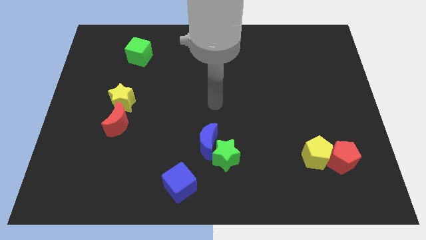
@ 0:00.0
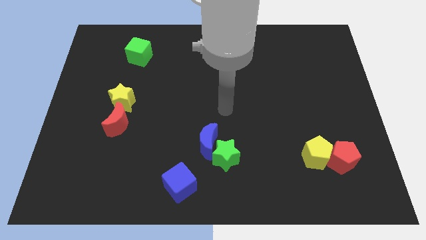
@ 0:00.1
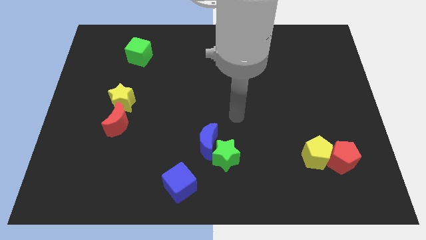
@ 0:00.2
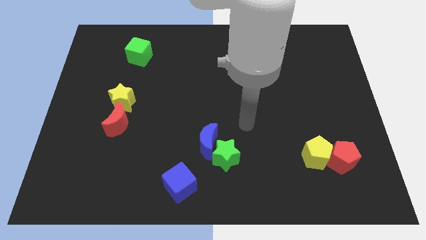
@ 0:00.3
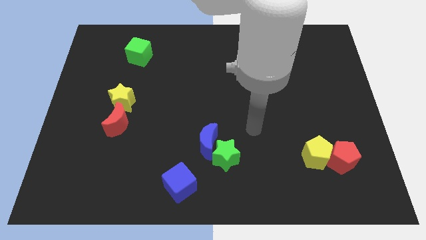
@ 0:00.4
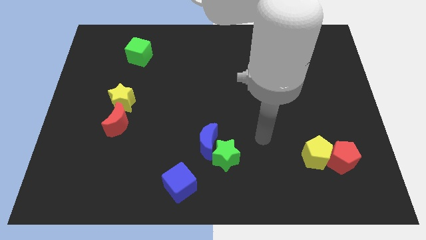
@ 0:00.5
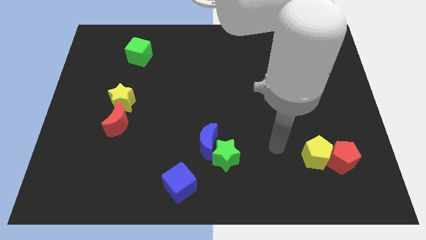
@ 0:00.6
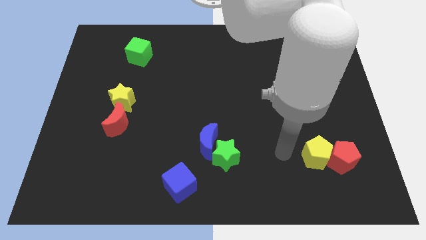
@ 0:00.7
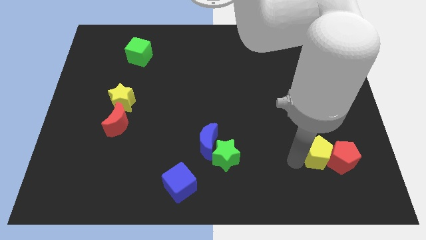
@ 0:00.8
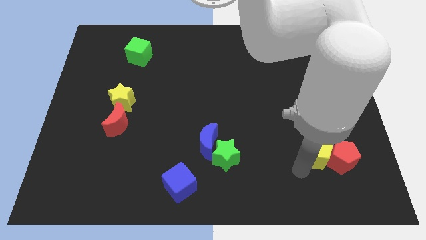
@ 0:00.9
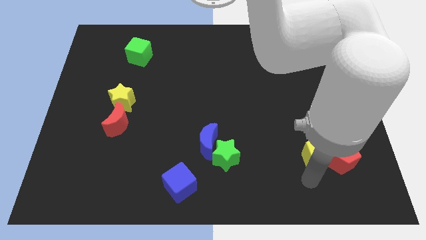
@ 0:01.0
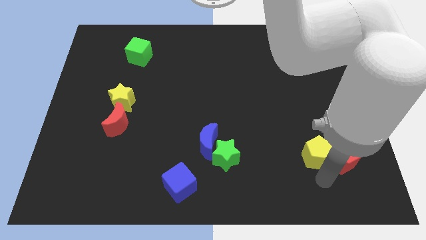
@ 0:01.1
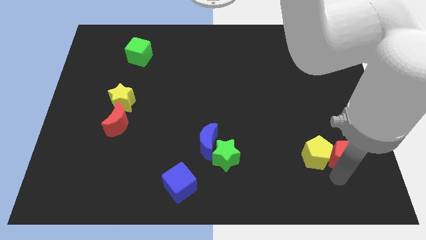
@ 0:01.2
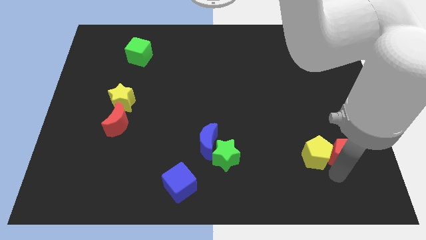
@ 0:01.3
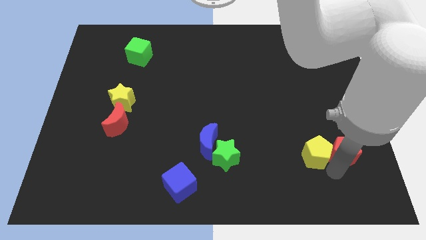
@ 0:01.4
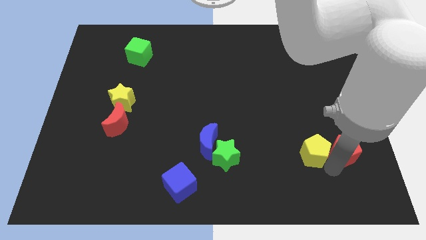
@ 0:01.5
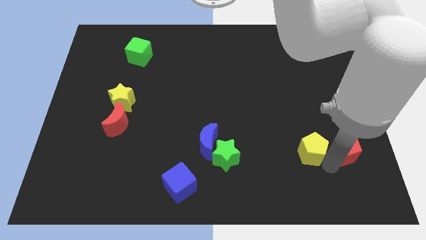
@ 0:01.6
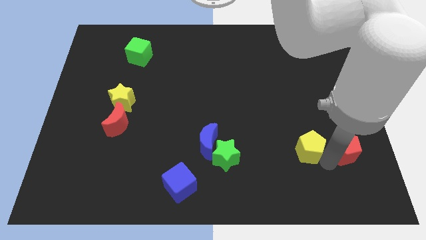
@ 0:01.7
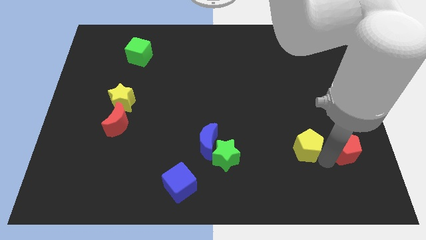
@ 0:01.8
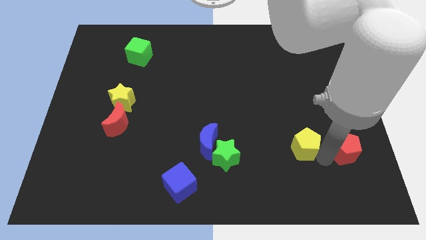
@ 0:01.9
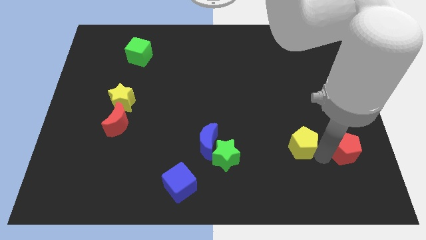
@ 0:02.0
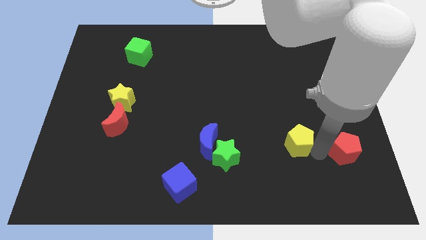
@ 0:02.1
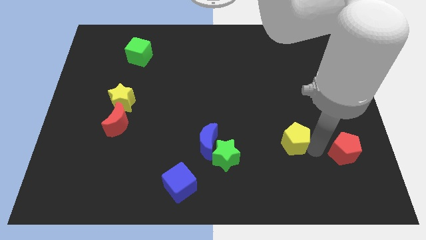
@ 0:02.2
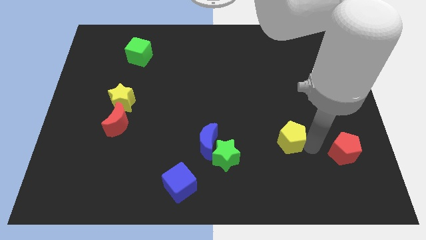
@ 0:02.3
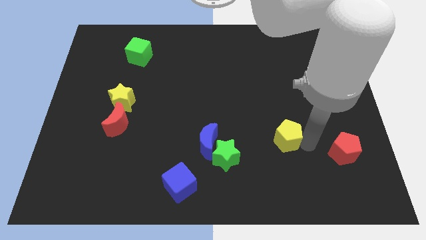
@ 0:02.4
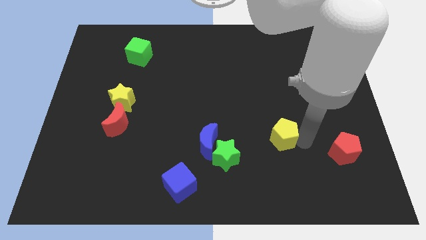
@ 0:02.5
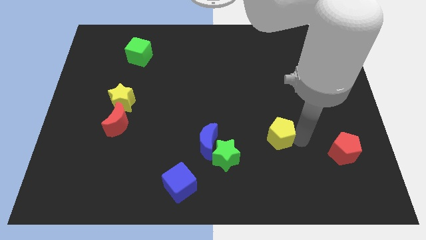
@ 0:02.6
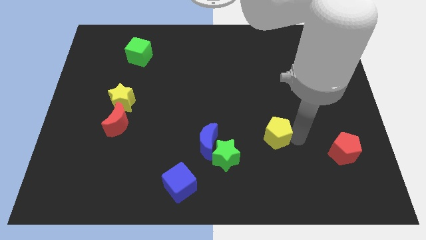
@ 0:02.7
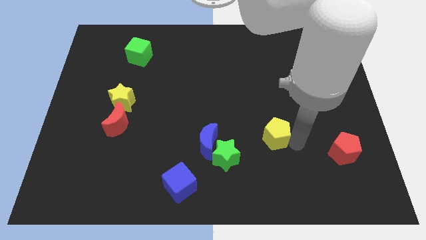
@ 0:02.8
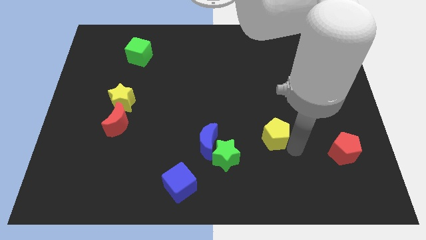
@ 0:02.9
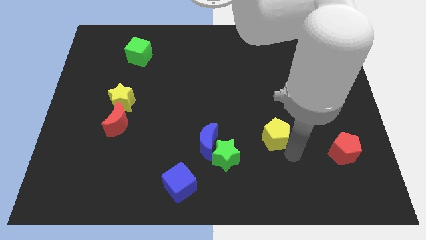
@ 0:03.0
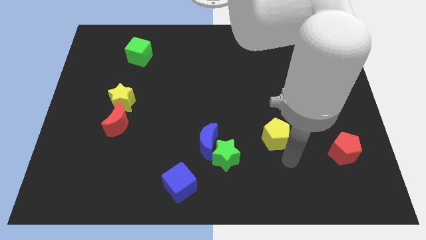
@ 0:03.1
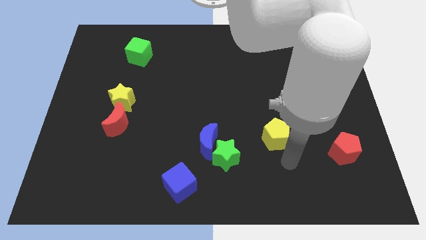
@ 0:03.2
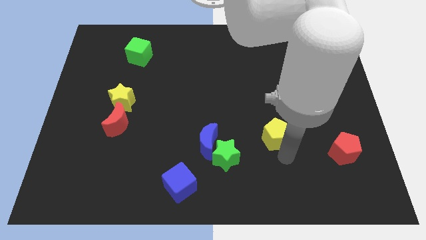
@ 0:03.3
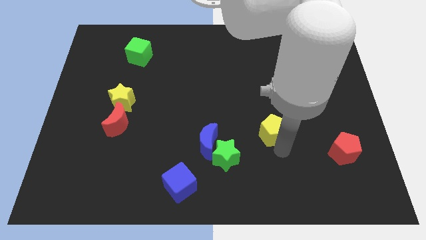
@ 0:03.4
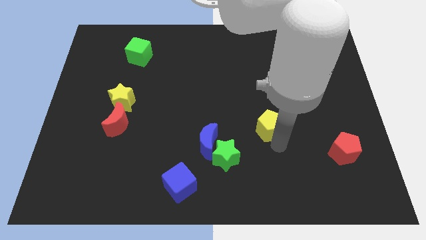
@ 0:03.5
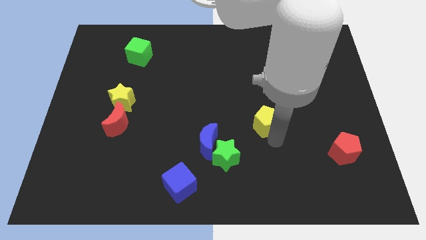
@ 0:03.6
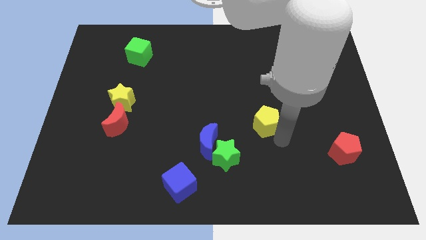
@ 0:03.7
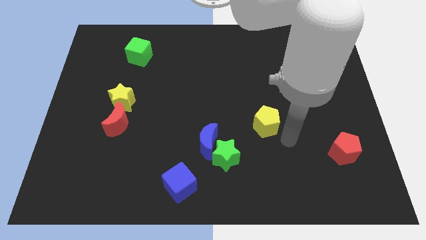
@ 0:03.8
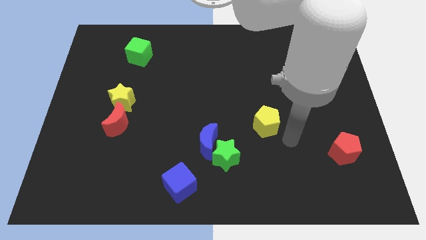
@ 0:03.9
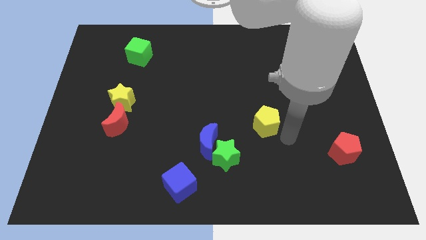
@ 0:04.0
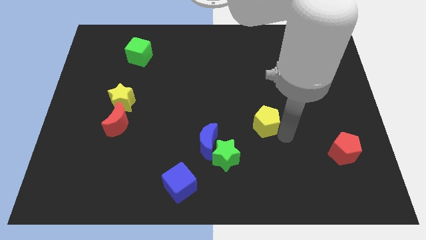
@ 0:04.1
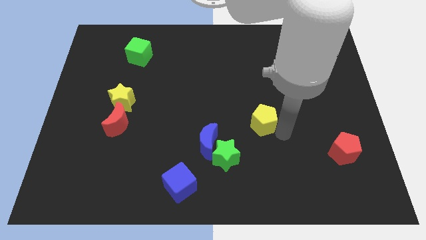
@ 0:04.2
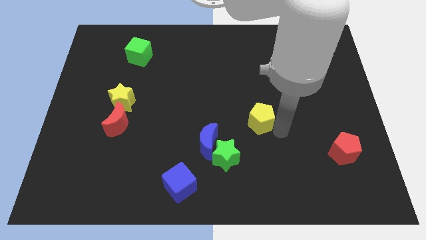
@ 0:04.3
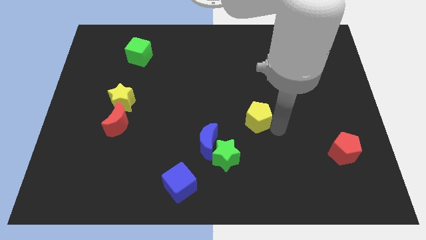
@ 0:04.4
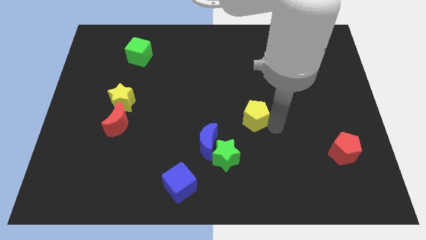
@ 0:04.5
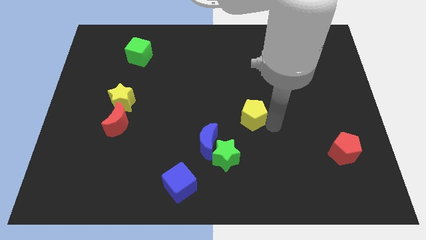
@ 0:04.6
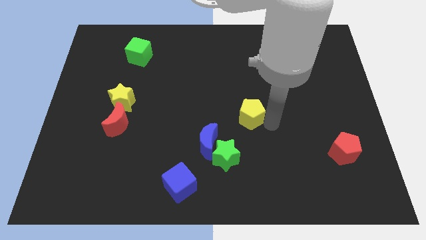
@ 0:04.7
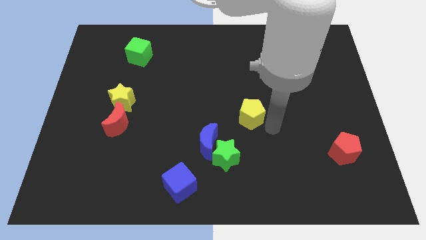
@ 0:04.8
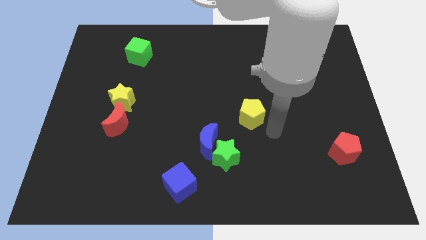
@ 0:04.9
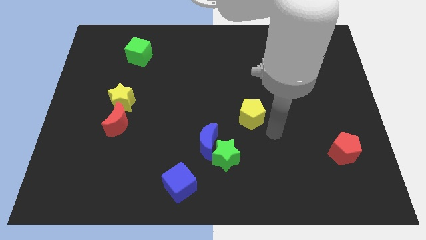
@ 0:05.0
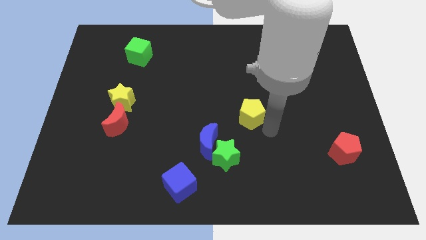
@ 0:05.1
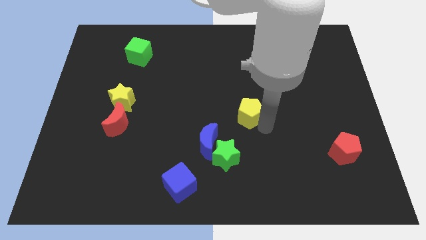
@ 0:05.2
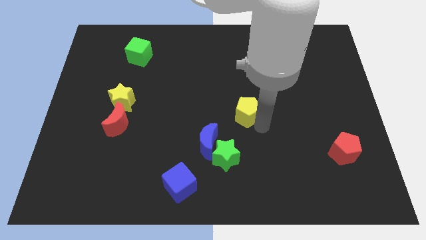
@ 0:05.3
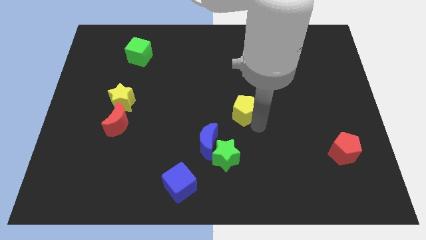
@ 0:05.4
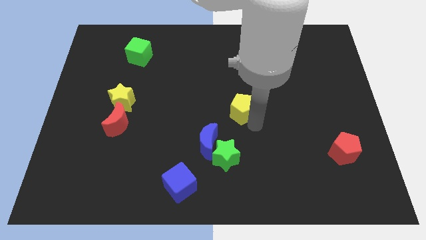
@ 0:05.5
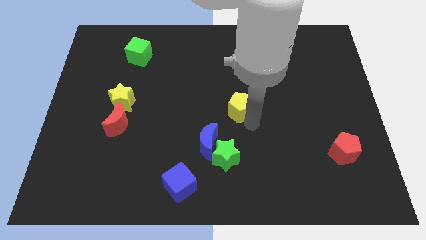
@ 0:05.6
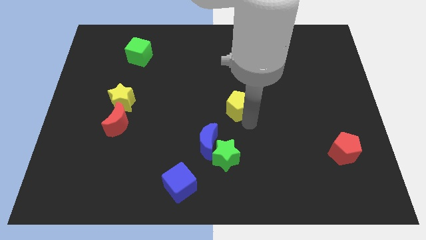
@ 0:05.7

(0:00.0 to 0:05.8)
slide the yellow pentagon diagonally upwards and to the left

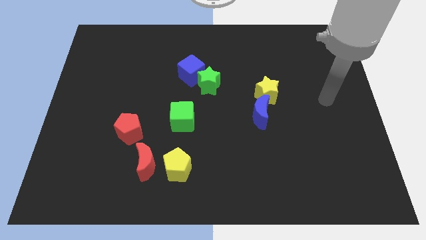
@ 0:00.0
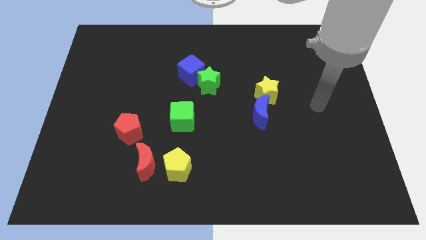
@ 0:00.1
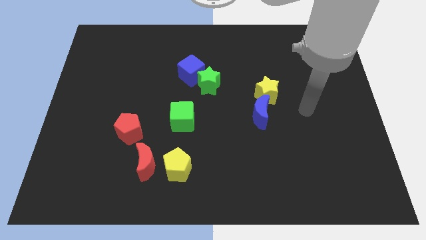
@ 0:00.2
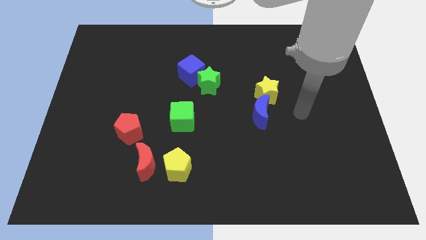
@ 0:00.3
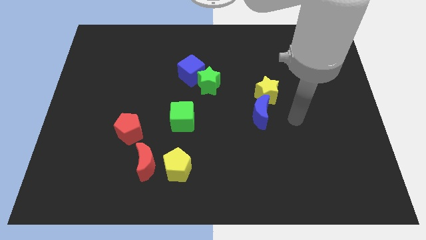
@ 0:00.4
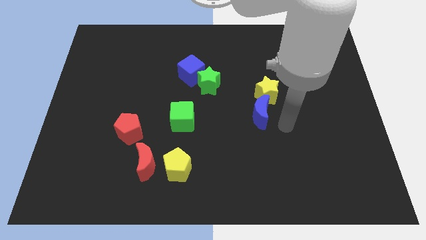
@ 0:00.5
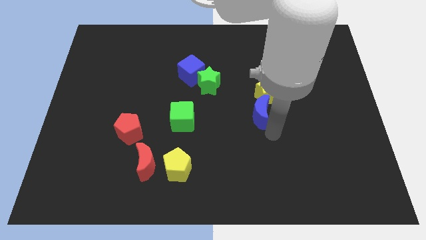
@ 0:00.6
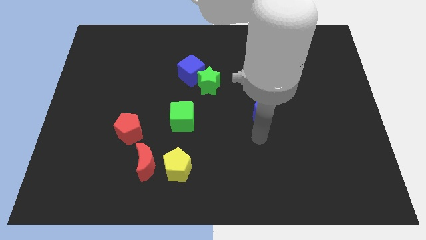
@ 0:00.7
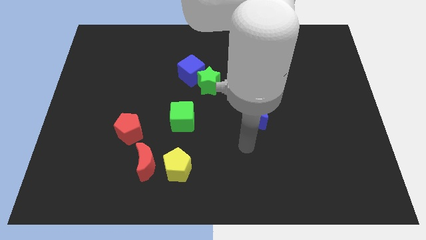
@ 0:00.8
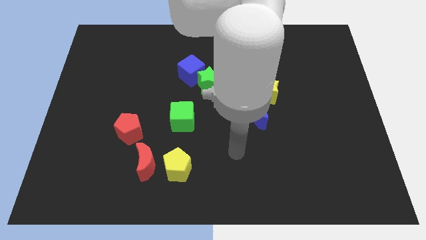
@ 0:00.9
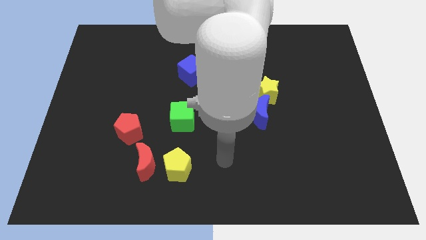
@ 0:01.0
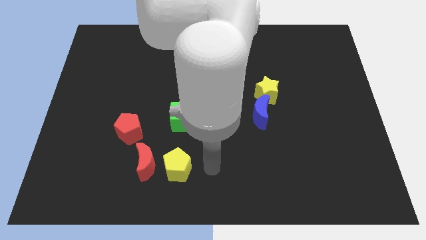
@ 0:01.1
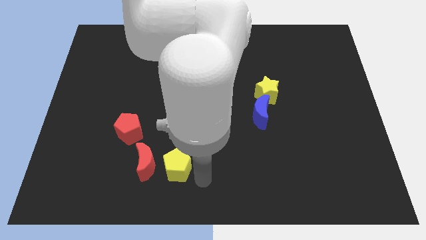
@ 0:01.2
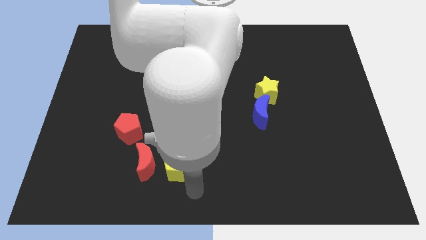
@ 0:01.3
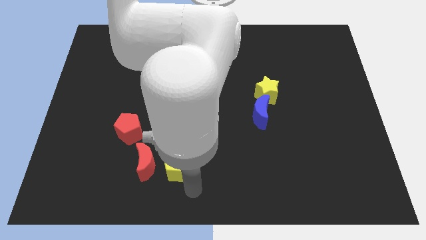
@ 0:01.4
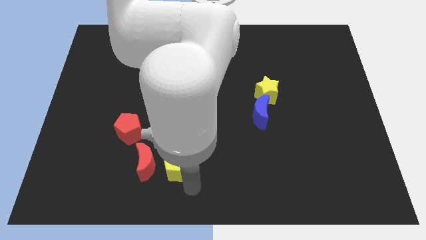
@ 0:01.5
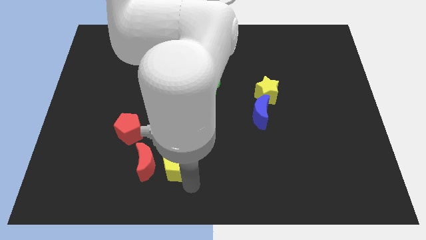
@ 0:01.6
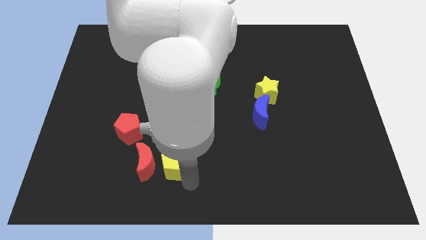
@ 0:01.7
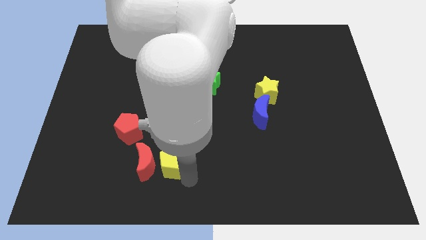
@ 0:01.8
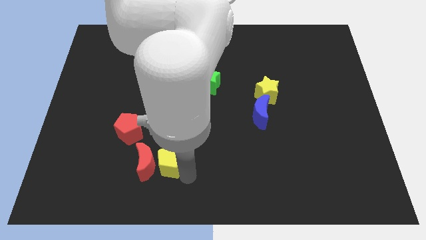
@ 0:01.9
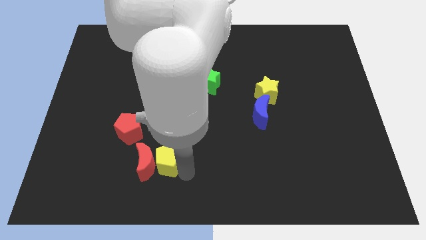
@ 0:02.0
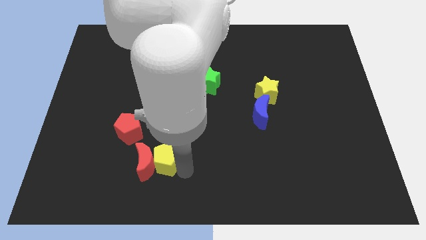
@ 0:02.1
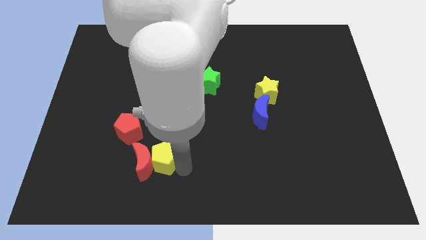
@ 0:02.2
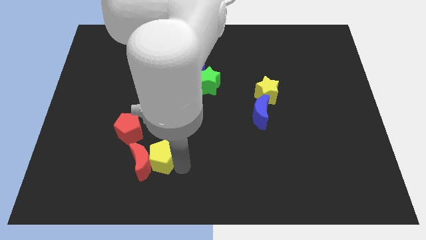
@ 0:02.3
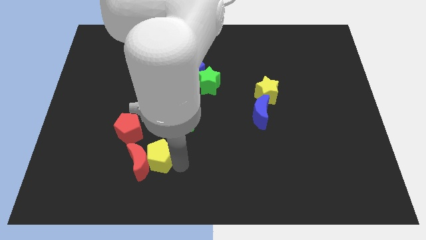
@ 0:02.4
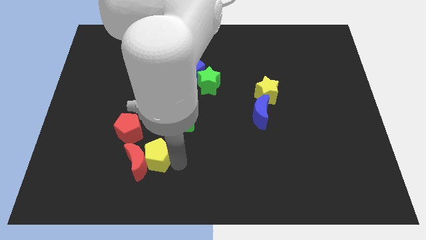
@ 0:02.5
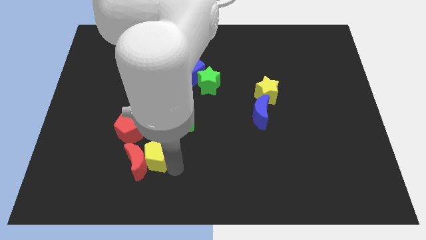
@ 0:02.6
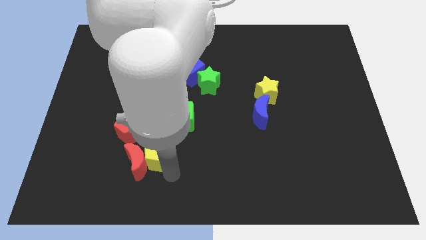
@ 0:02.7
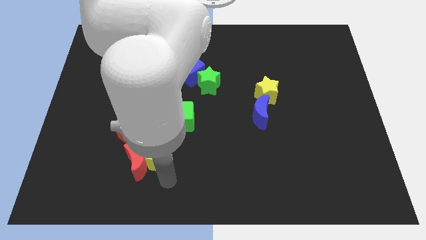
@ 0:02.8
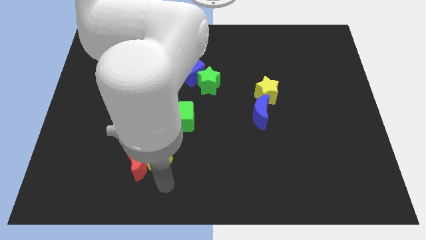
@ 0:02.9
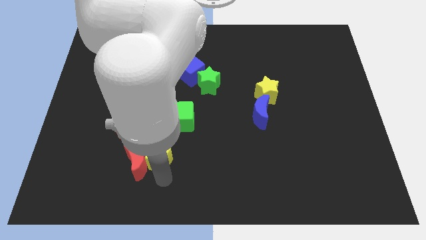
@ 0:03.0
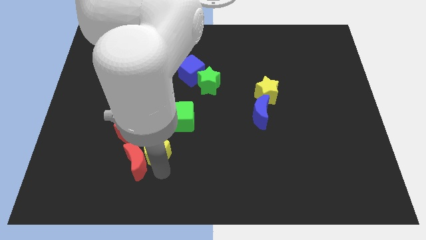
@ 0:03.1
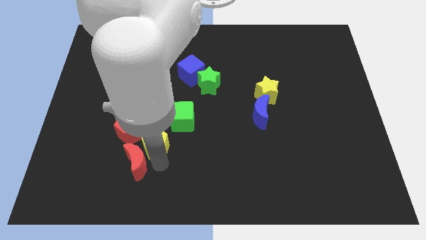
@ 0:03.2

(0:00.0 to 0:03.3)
slightly move the yellow pentagon diagonally upwards and left
